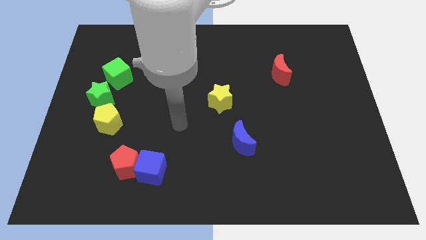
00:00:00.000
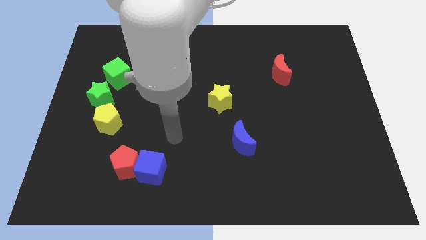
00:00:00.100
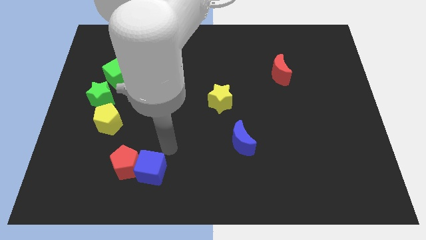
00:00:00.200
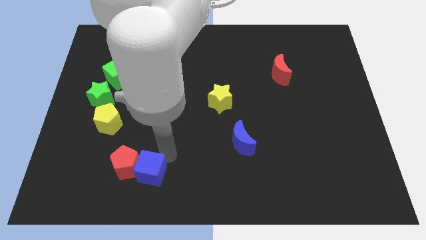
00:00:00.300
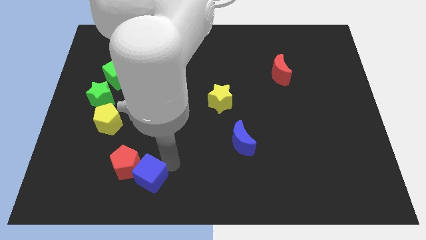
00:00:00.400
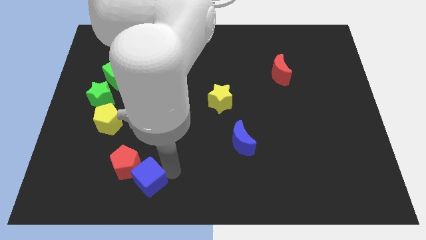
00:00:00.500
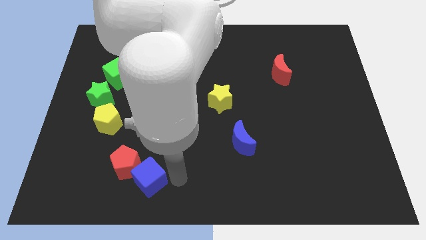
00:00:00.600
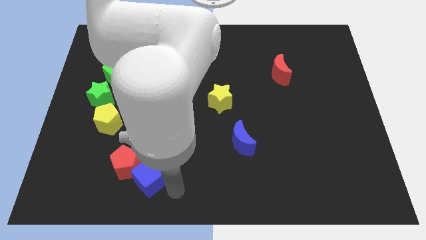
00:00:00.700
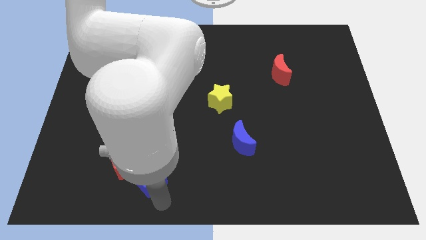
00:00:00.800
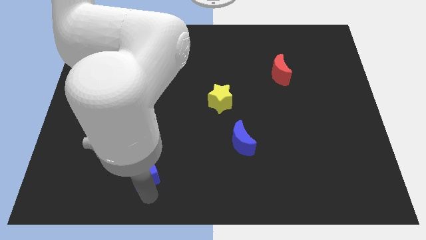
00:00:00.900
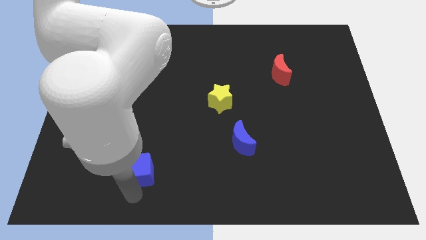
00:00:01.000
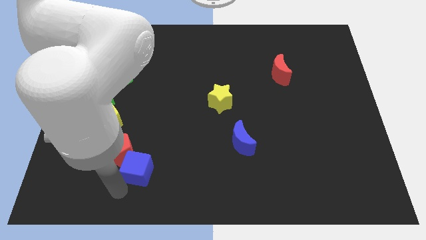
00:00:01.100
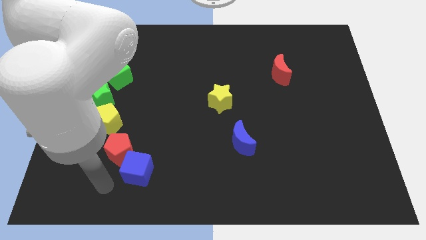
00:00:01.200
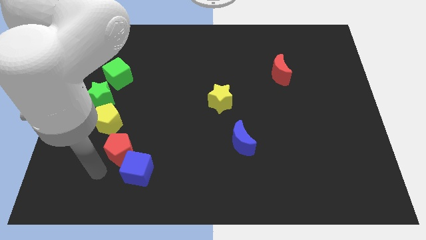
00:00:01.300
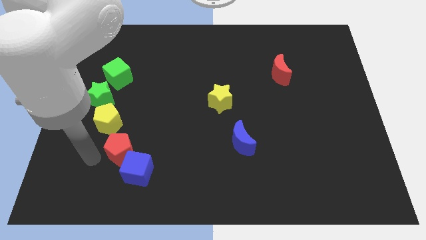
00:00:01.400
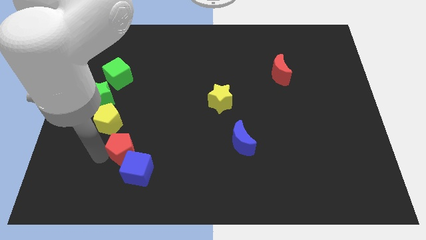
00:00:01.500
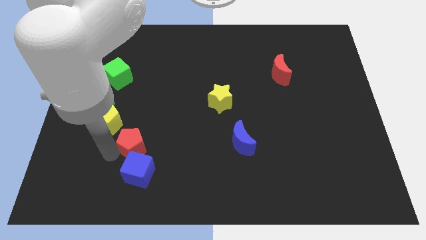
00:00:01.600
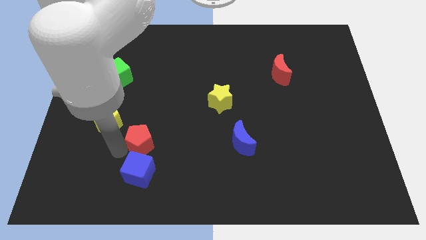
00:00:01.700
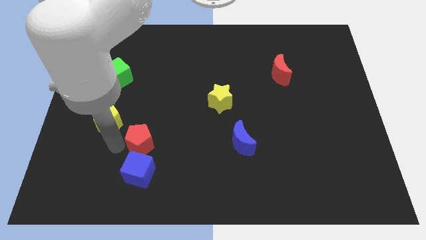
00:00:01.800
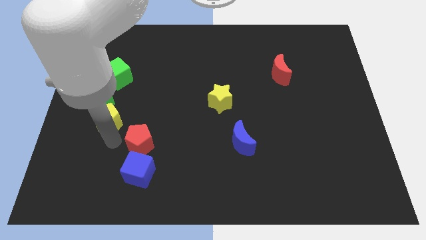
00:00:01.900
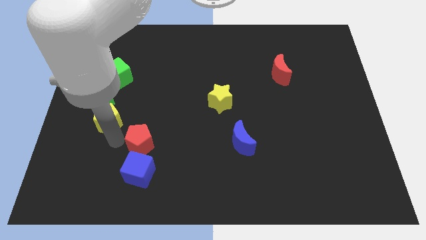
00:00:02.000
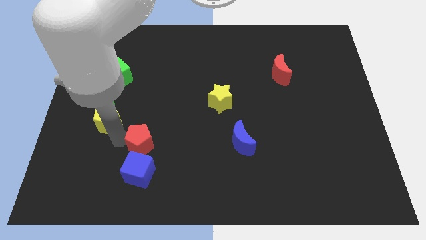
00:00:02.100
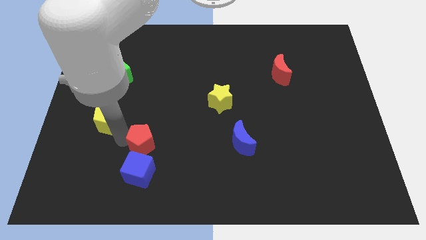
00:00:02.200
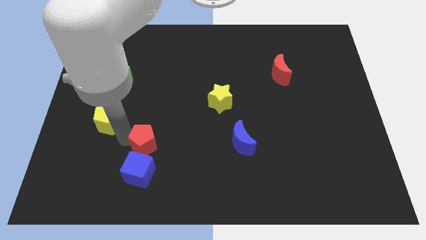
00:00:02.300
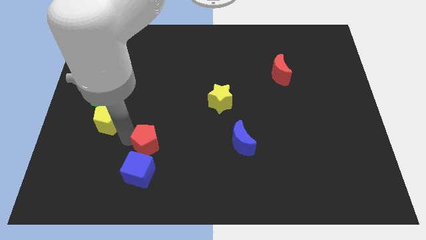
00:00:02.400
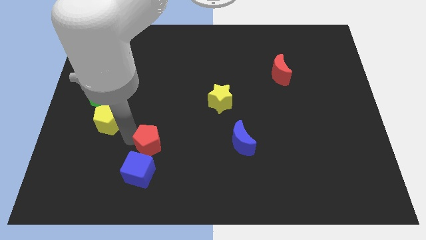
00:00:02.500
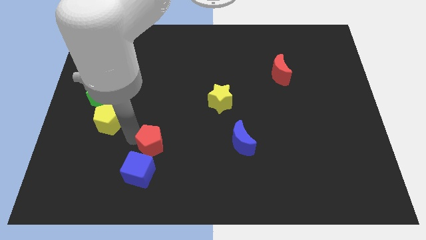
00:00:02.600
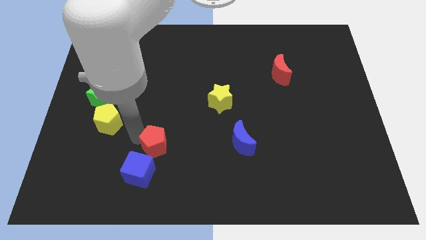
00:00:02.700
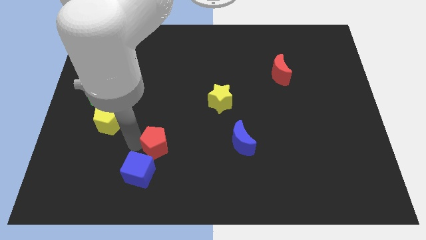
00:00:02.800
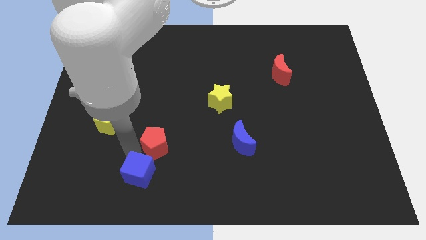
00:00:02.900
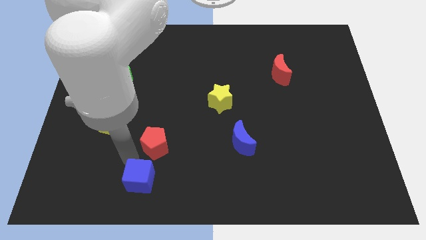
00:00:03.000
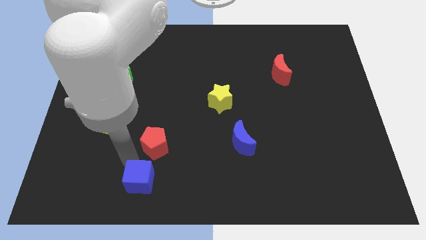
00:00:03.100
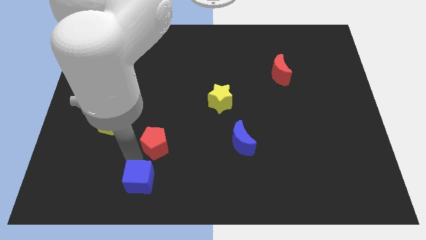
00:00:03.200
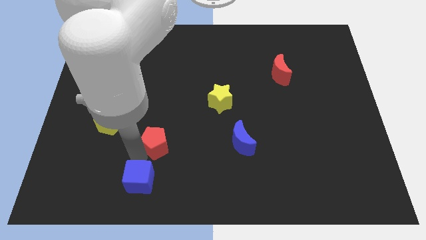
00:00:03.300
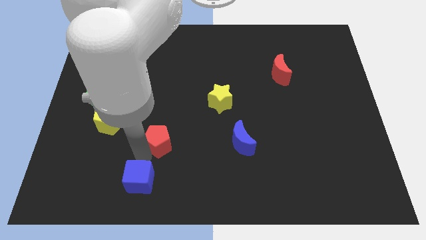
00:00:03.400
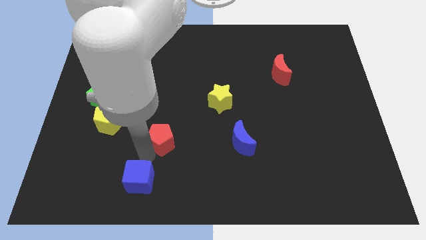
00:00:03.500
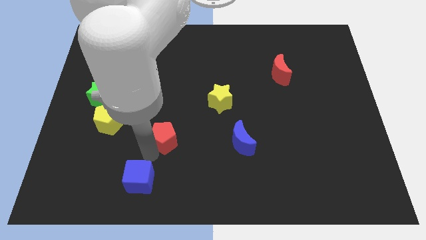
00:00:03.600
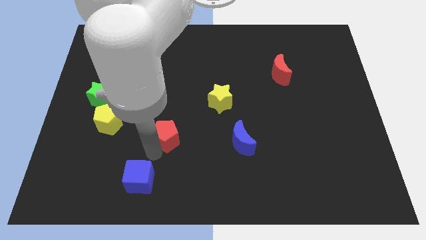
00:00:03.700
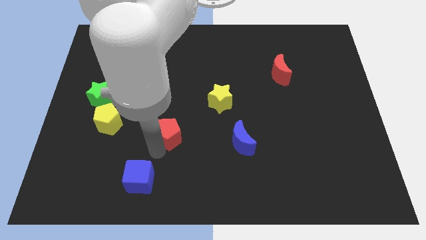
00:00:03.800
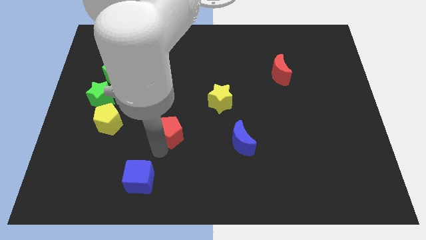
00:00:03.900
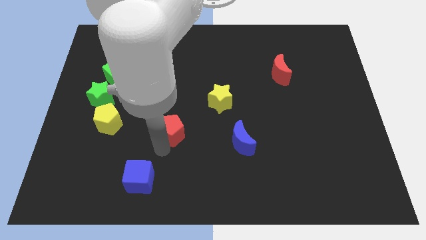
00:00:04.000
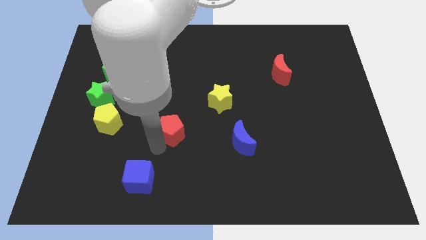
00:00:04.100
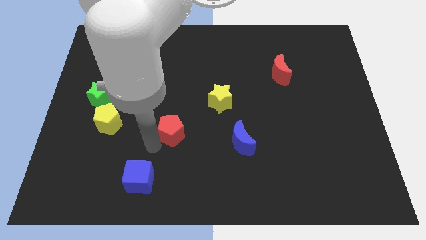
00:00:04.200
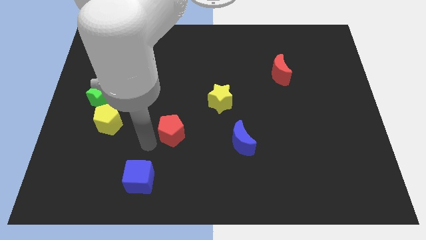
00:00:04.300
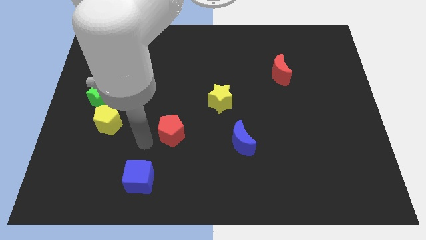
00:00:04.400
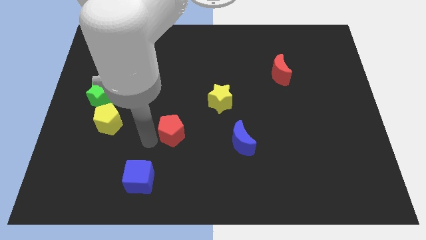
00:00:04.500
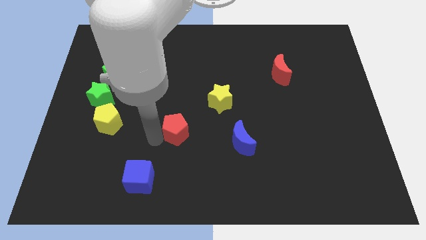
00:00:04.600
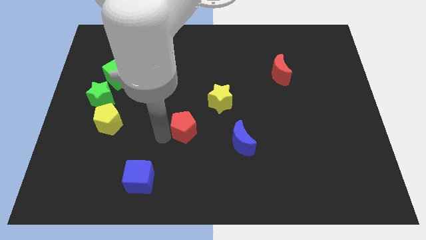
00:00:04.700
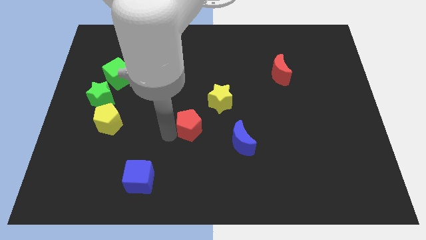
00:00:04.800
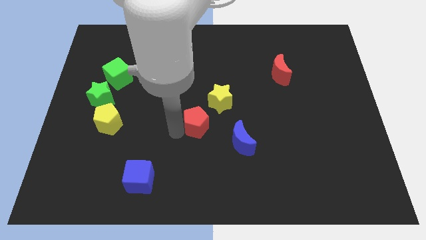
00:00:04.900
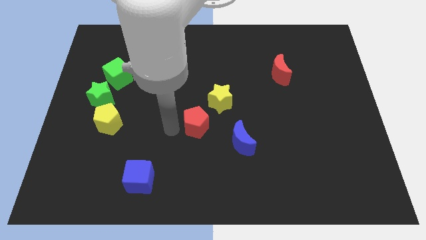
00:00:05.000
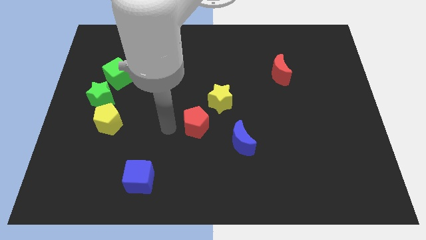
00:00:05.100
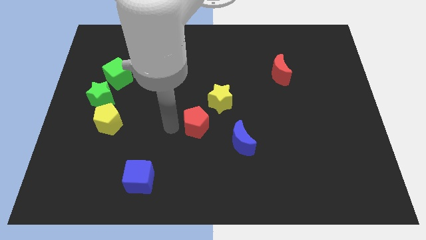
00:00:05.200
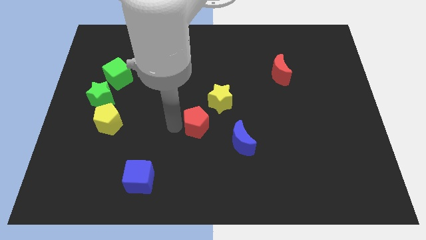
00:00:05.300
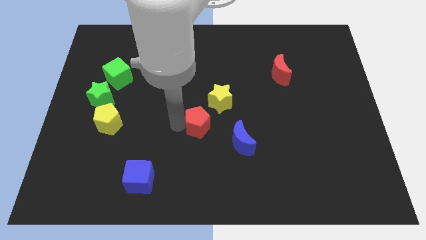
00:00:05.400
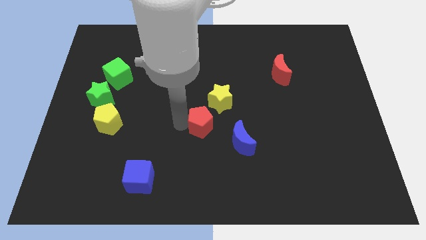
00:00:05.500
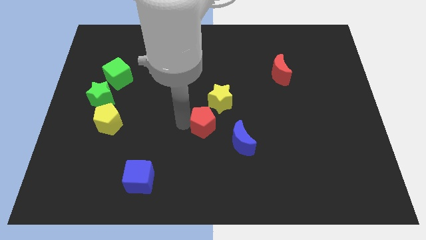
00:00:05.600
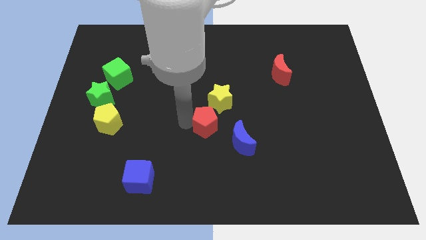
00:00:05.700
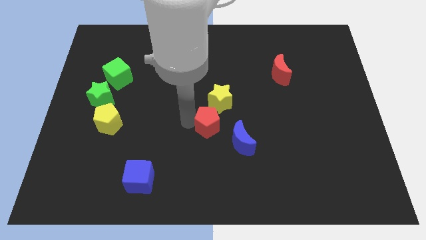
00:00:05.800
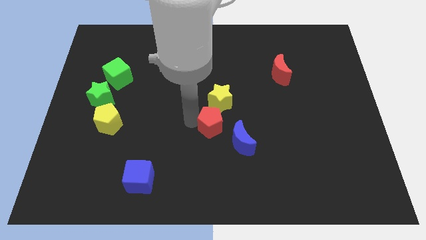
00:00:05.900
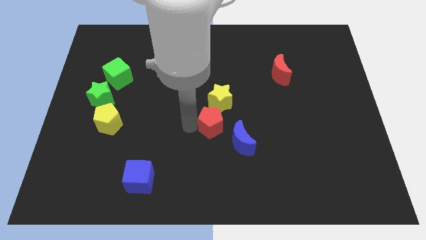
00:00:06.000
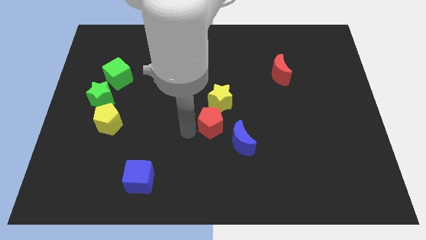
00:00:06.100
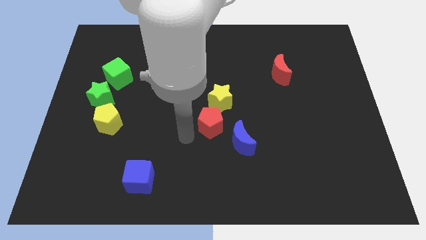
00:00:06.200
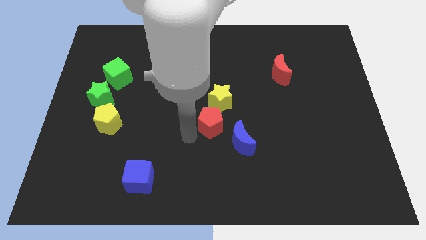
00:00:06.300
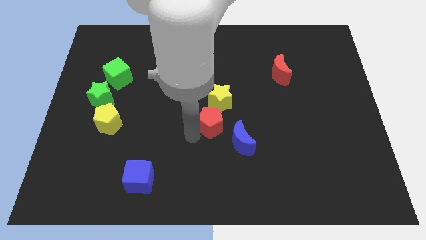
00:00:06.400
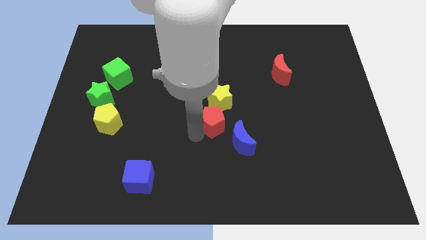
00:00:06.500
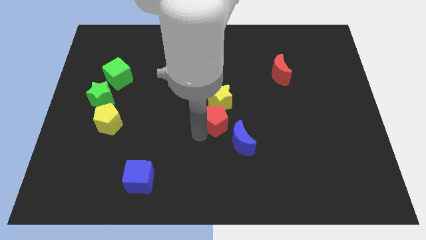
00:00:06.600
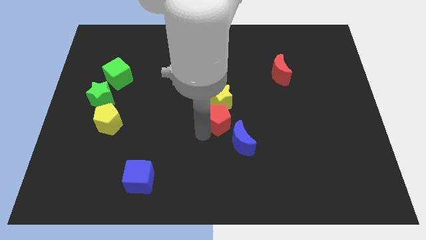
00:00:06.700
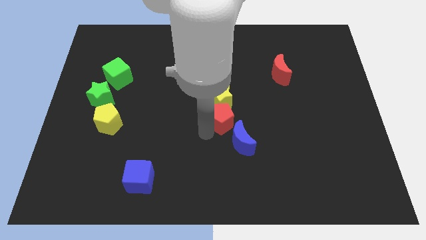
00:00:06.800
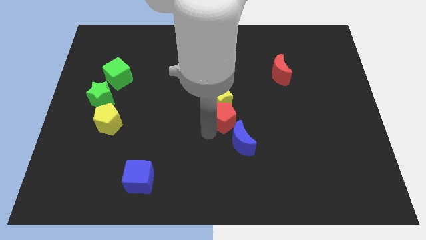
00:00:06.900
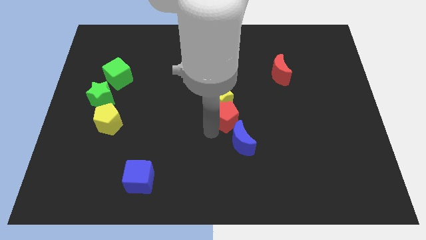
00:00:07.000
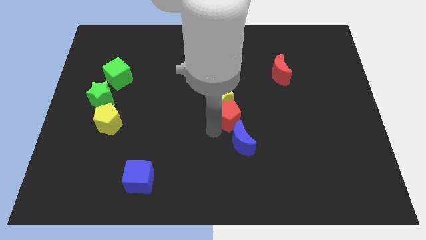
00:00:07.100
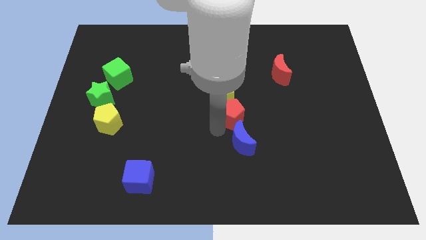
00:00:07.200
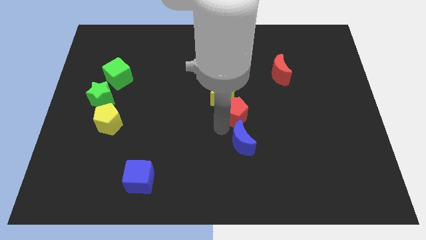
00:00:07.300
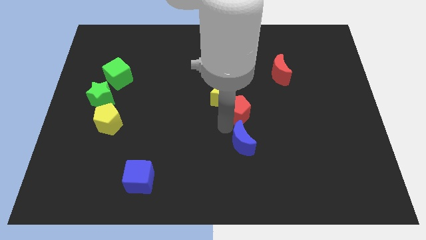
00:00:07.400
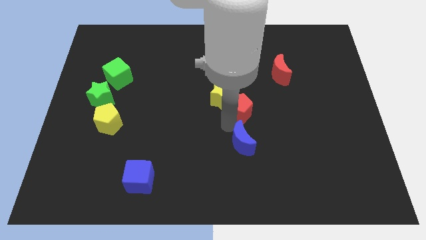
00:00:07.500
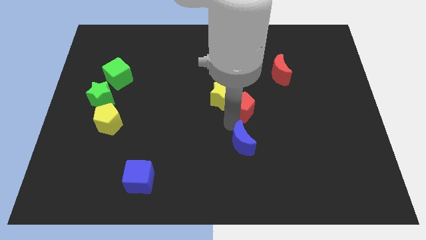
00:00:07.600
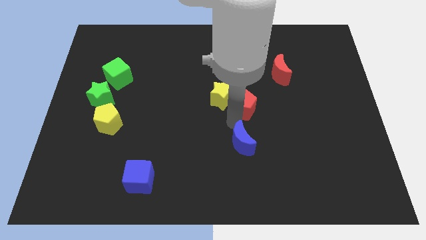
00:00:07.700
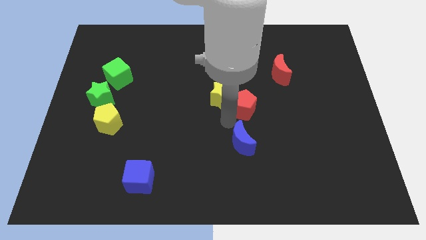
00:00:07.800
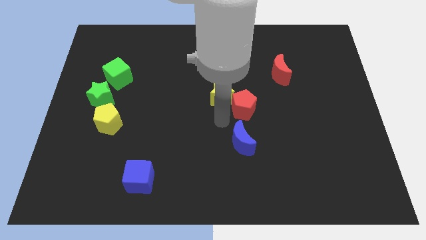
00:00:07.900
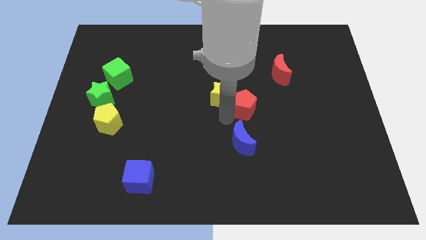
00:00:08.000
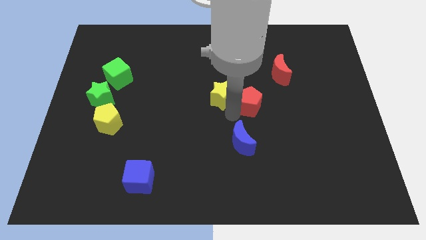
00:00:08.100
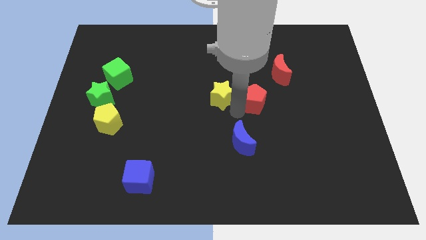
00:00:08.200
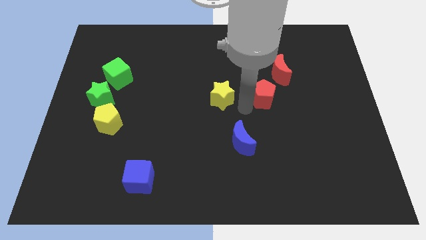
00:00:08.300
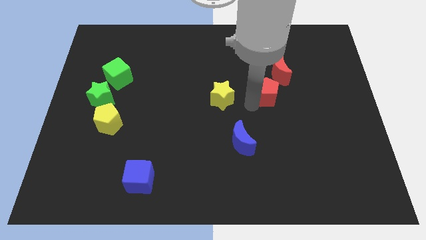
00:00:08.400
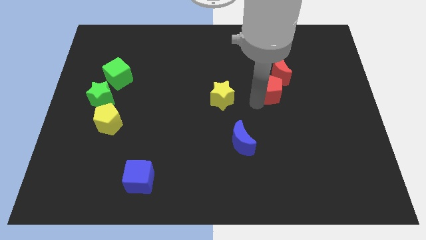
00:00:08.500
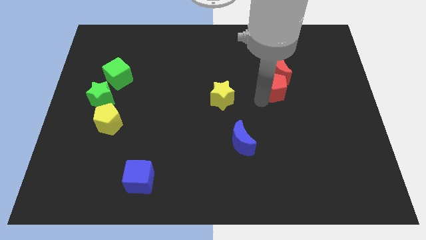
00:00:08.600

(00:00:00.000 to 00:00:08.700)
move the red pentagon close to the red moon
